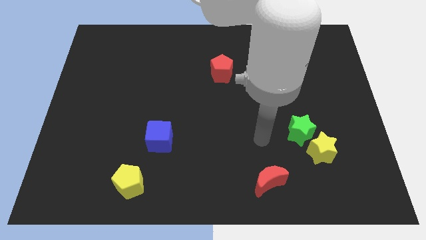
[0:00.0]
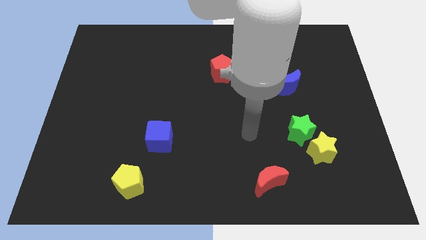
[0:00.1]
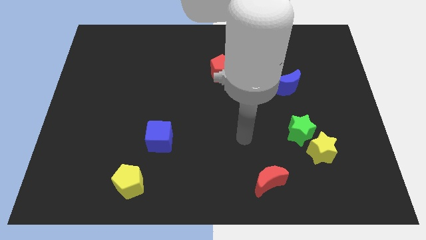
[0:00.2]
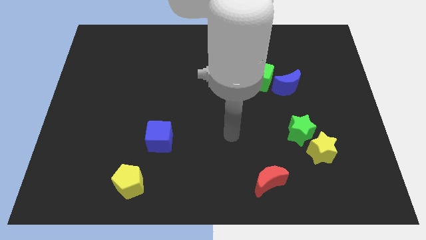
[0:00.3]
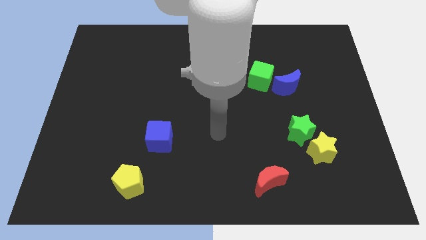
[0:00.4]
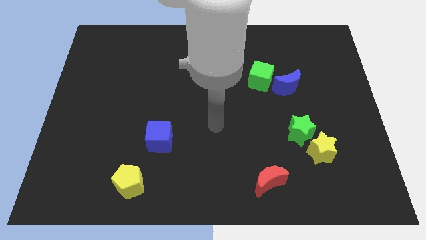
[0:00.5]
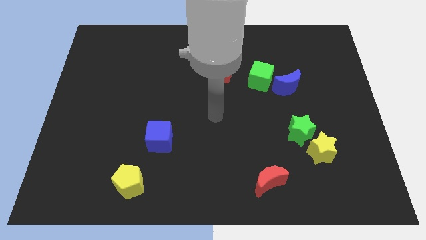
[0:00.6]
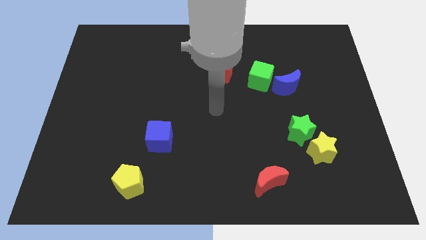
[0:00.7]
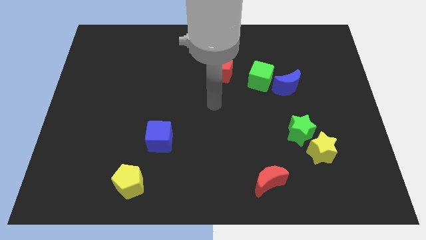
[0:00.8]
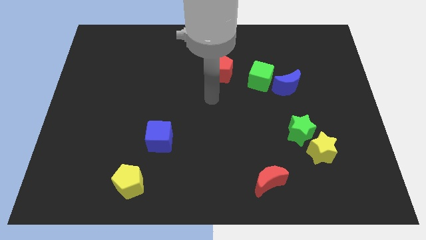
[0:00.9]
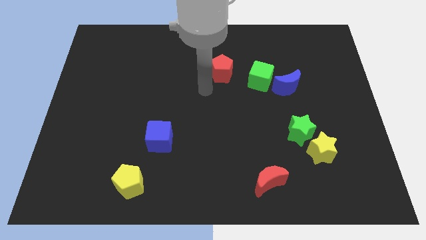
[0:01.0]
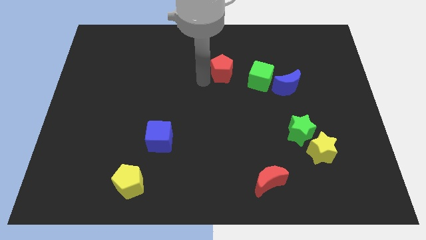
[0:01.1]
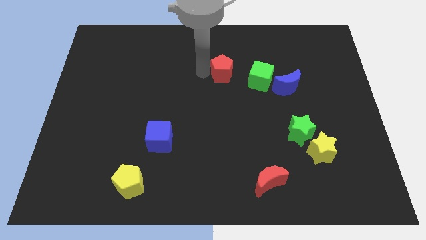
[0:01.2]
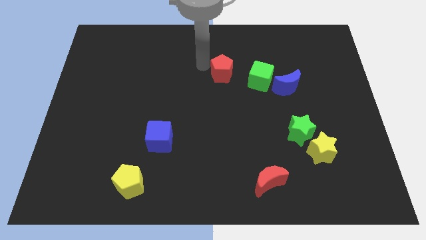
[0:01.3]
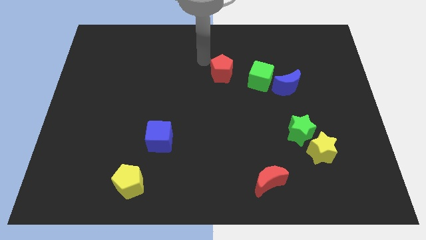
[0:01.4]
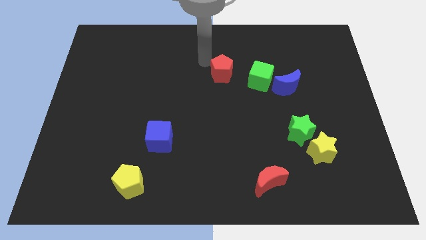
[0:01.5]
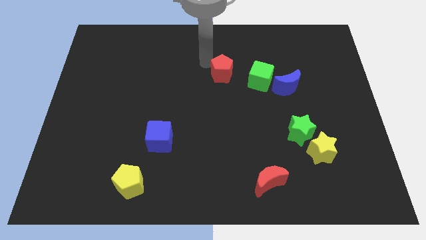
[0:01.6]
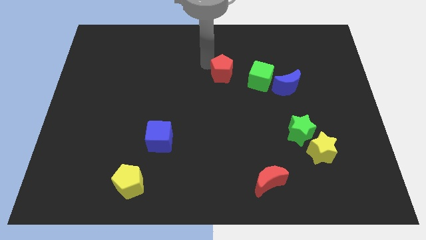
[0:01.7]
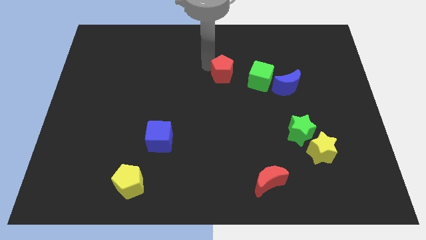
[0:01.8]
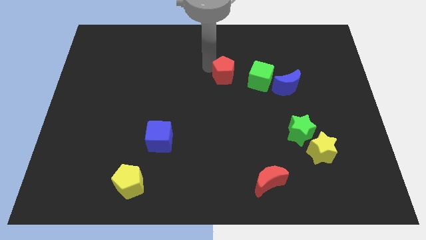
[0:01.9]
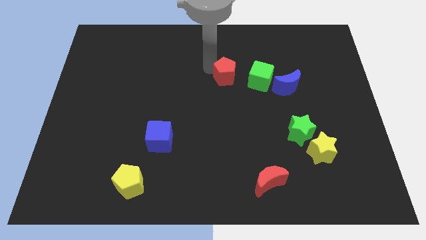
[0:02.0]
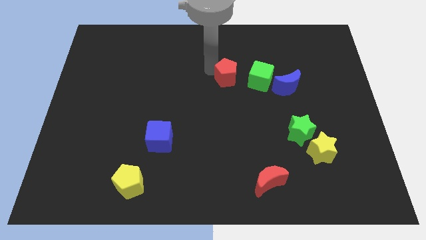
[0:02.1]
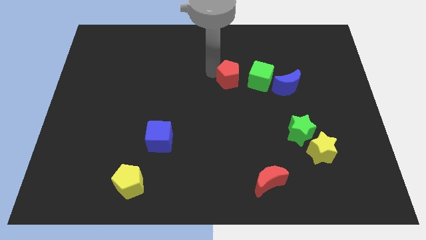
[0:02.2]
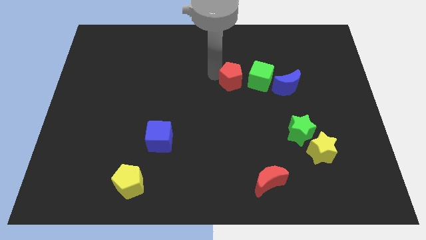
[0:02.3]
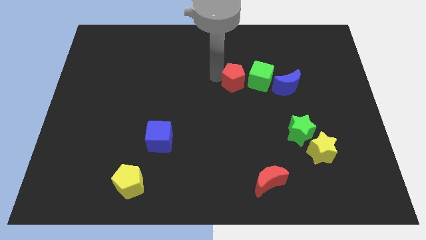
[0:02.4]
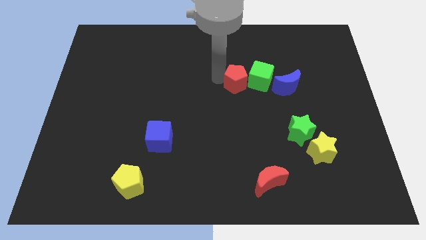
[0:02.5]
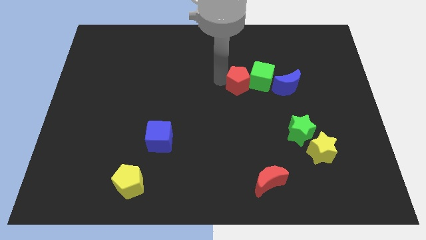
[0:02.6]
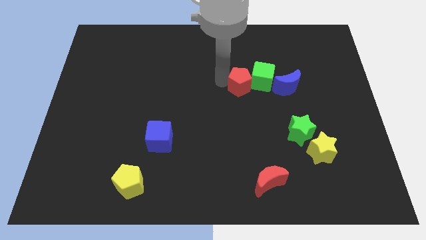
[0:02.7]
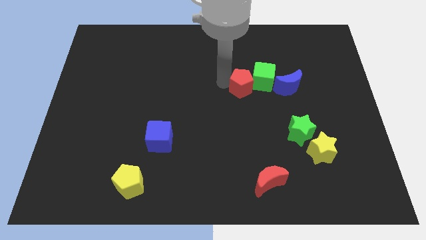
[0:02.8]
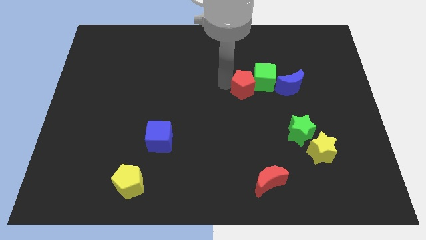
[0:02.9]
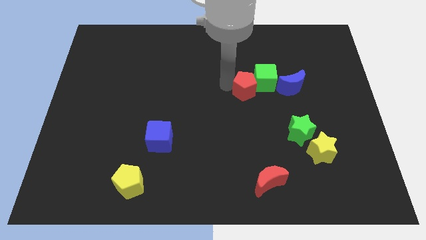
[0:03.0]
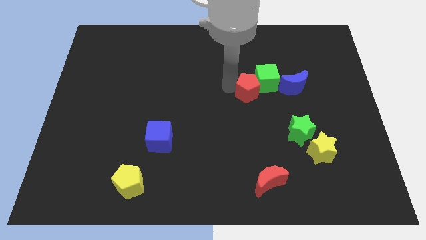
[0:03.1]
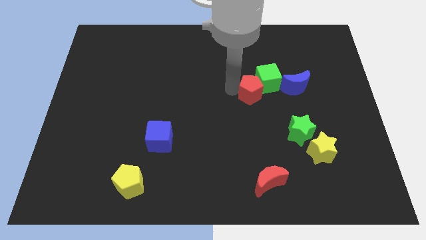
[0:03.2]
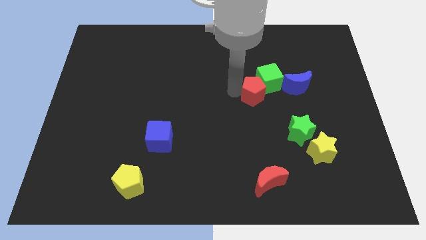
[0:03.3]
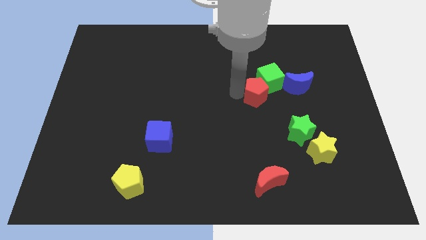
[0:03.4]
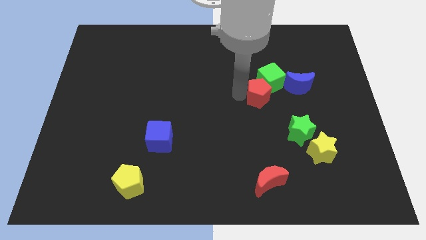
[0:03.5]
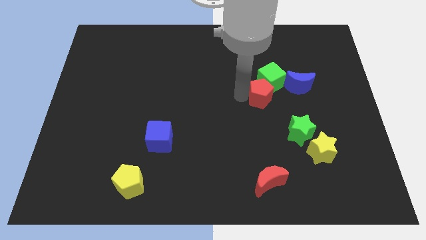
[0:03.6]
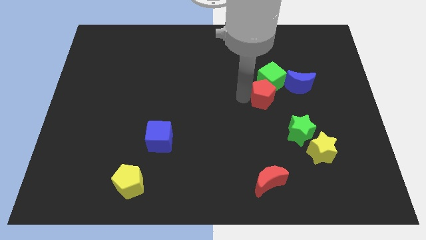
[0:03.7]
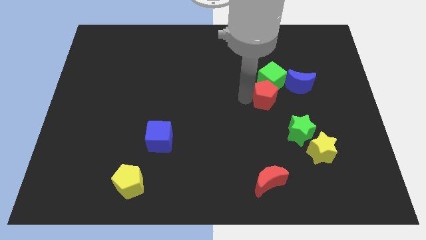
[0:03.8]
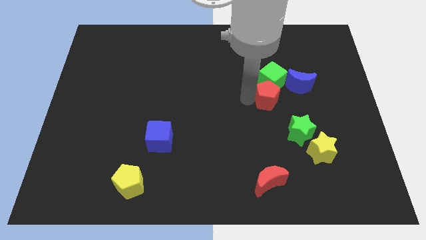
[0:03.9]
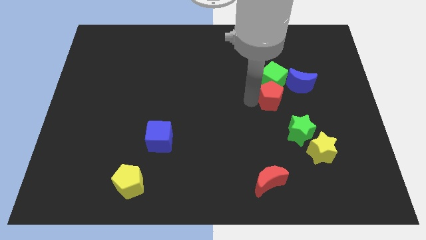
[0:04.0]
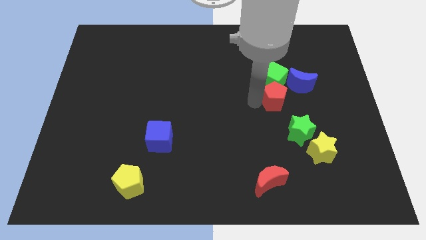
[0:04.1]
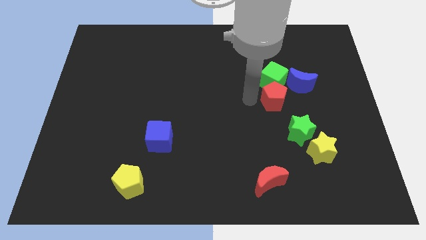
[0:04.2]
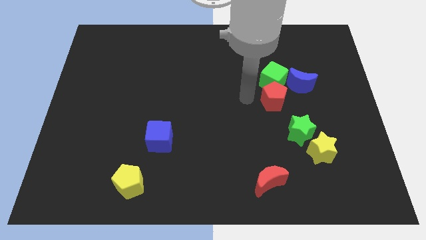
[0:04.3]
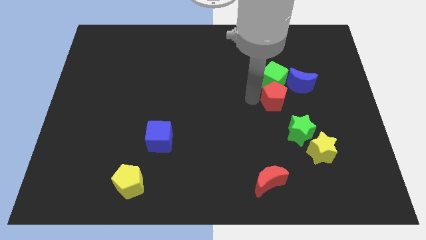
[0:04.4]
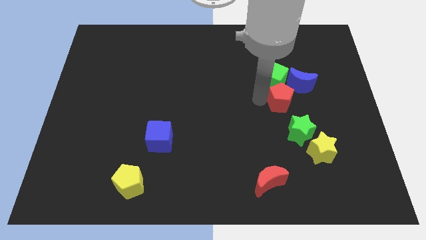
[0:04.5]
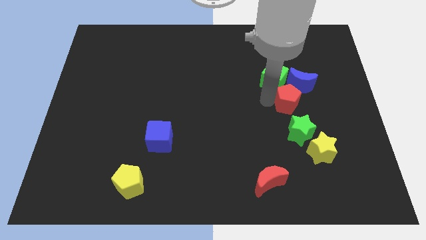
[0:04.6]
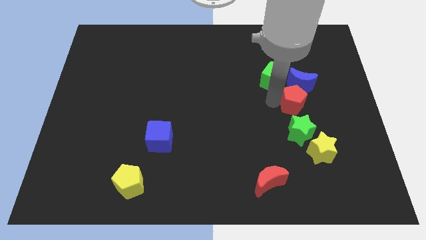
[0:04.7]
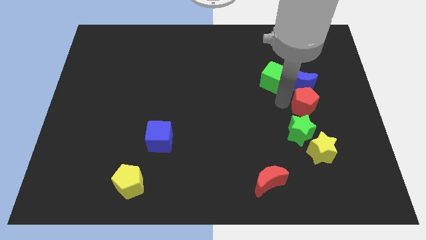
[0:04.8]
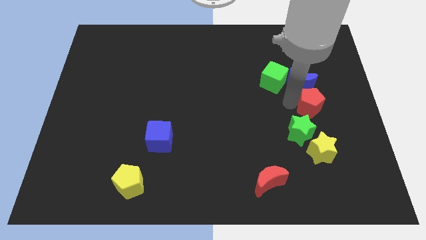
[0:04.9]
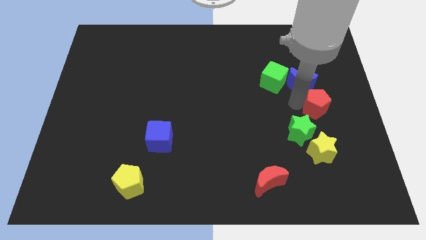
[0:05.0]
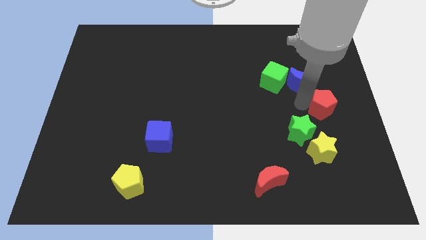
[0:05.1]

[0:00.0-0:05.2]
put the red pentagon to the right side of the board

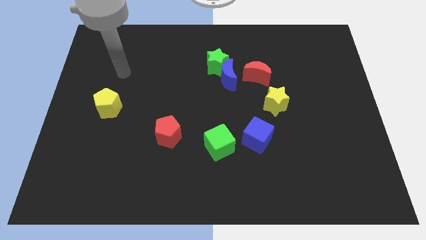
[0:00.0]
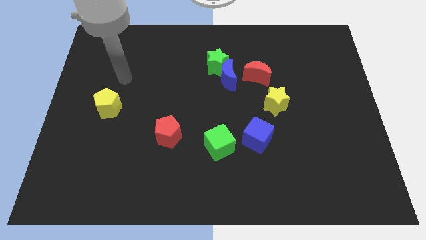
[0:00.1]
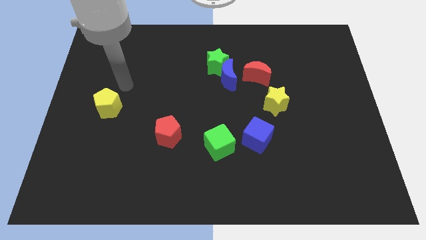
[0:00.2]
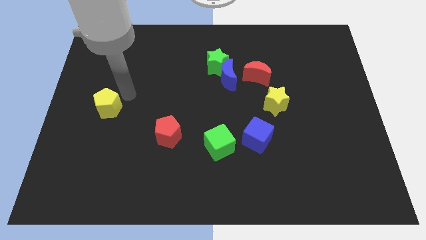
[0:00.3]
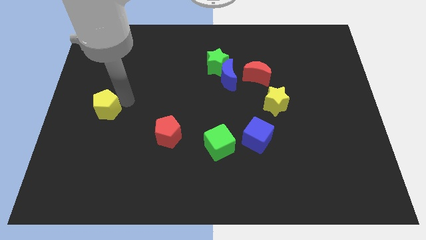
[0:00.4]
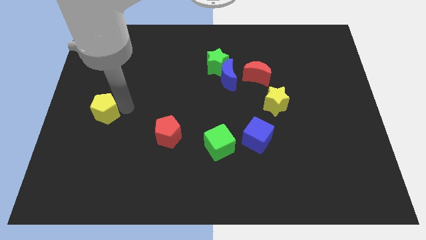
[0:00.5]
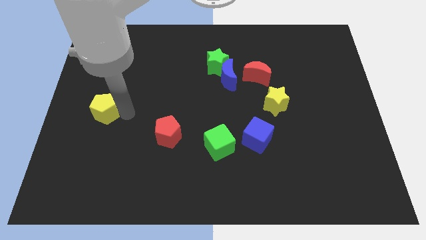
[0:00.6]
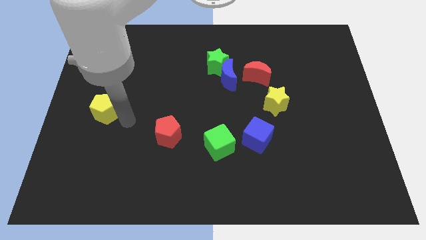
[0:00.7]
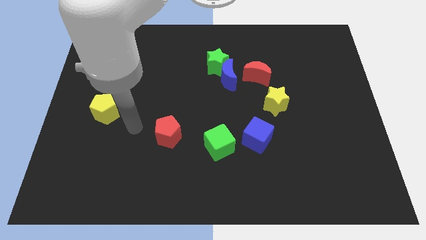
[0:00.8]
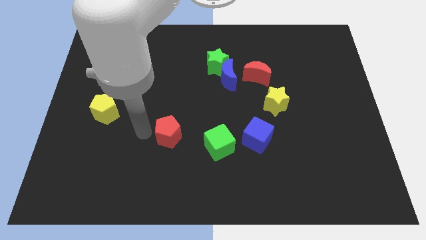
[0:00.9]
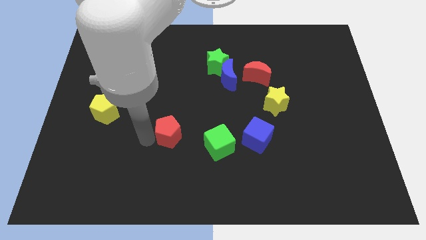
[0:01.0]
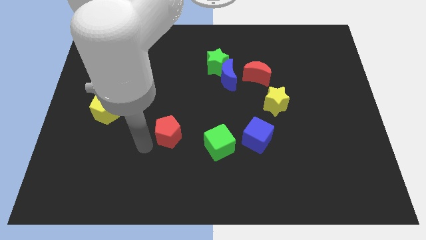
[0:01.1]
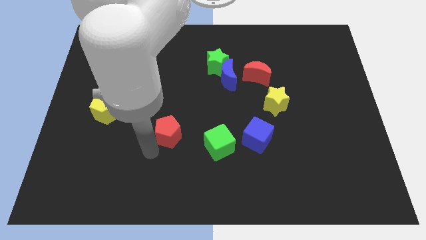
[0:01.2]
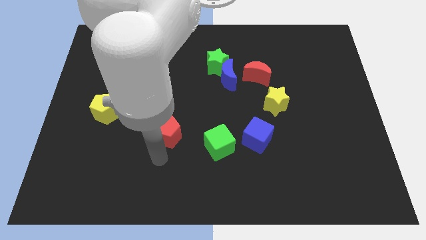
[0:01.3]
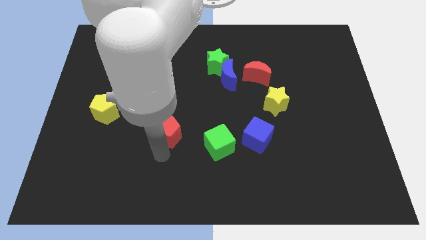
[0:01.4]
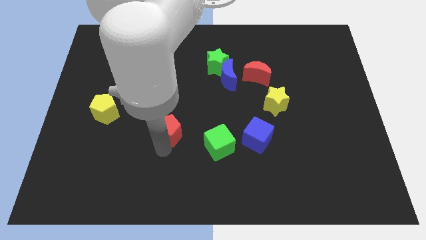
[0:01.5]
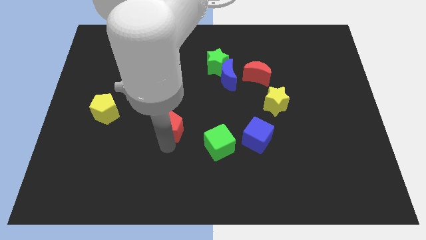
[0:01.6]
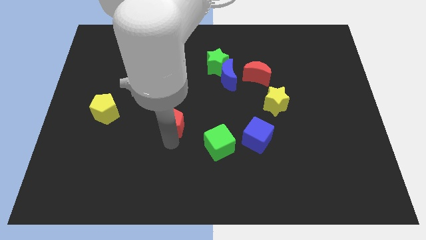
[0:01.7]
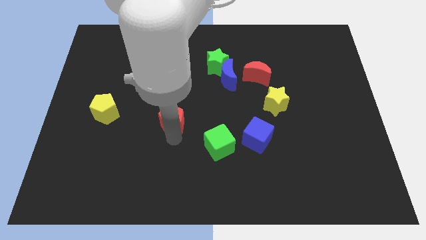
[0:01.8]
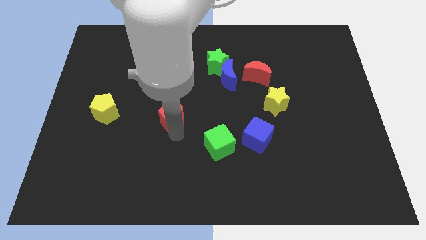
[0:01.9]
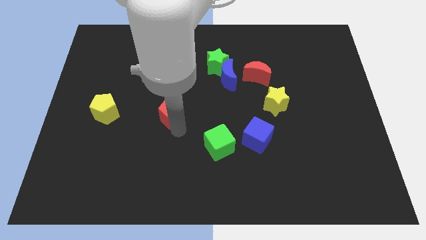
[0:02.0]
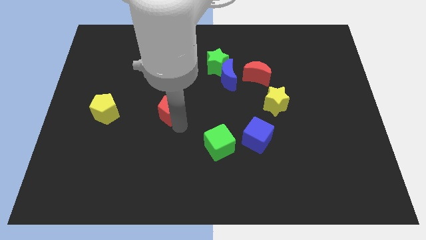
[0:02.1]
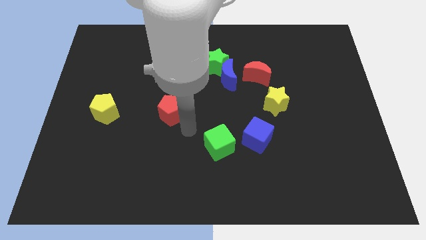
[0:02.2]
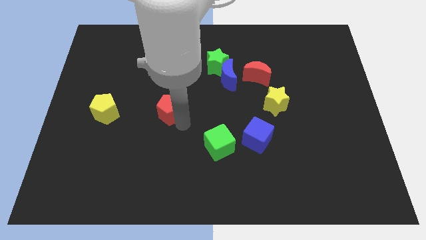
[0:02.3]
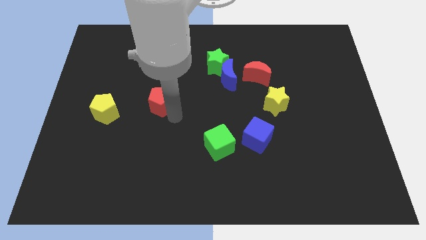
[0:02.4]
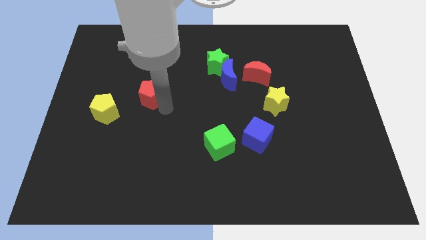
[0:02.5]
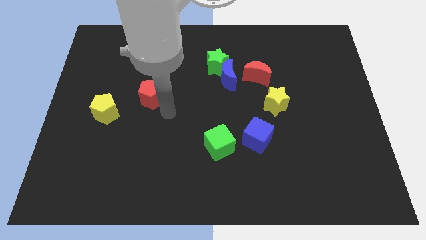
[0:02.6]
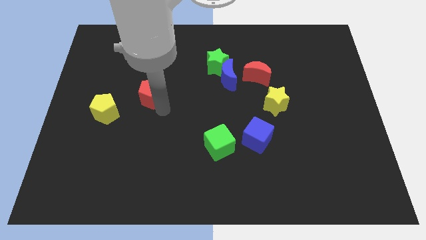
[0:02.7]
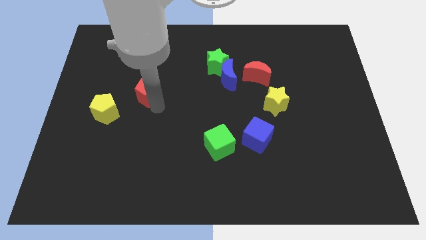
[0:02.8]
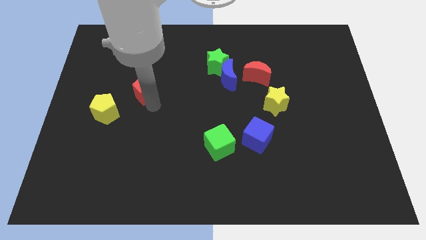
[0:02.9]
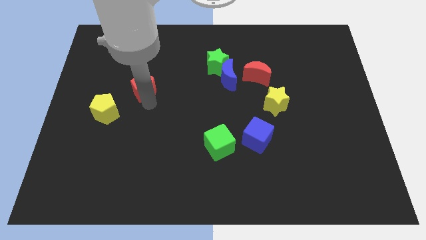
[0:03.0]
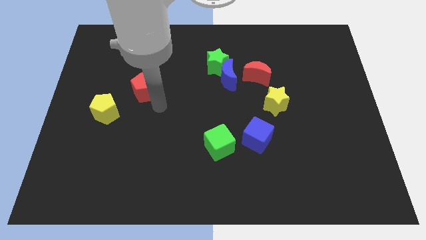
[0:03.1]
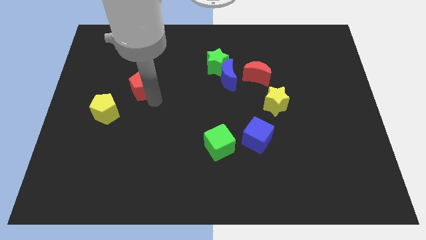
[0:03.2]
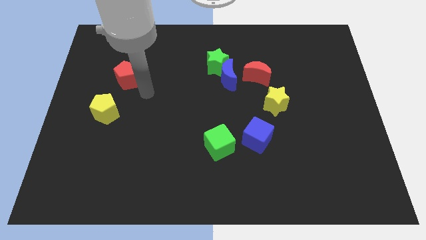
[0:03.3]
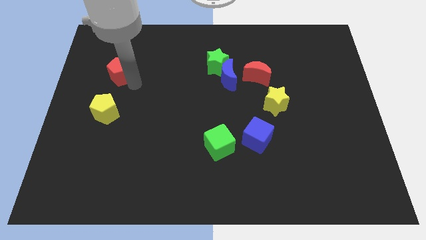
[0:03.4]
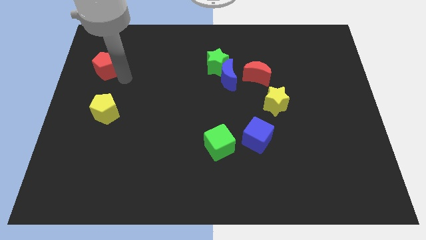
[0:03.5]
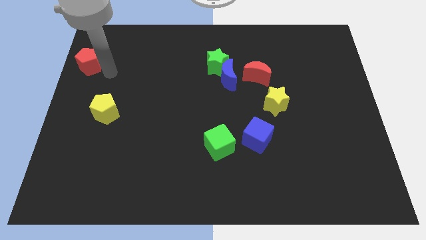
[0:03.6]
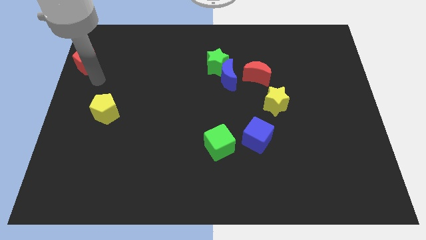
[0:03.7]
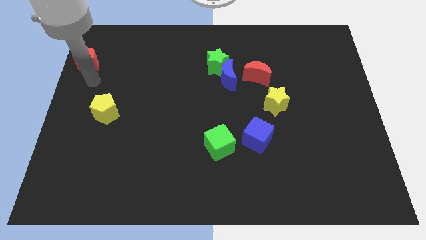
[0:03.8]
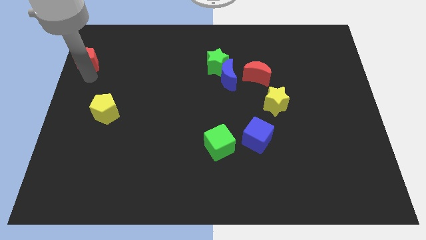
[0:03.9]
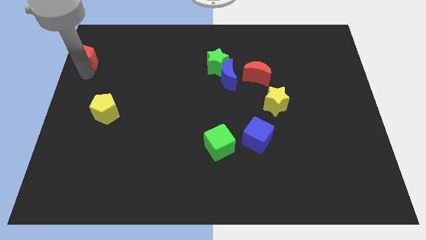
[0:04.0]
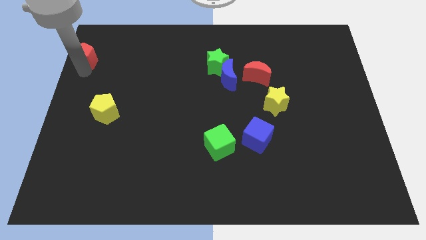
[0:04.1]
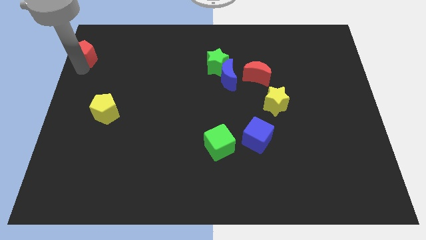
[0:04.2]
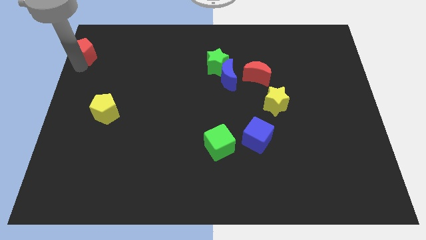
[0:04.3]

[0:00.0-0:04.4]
slide the red pentagon to the top left
